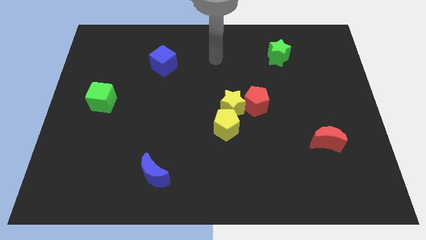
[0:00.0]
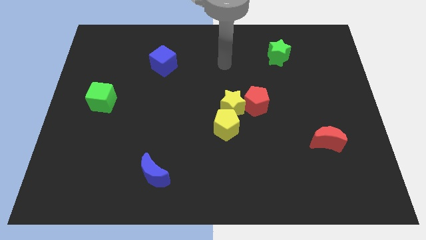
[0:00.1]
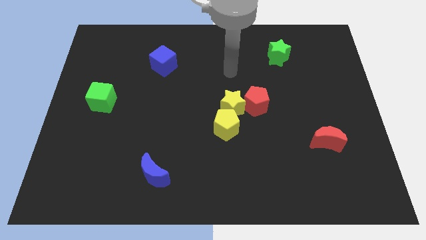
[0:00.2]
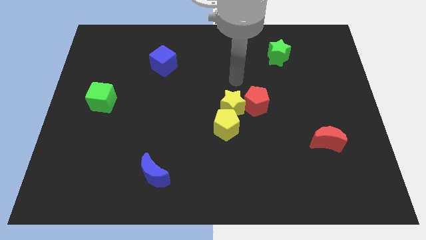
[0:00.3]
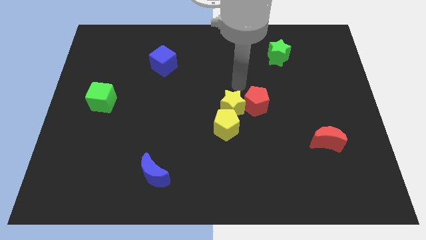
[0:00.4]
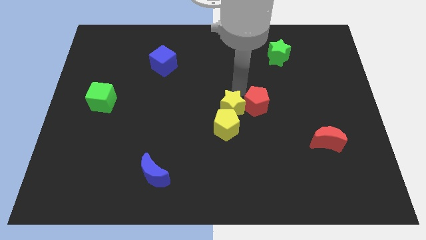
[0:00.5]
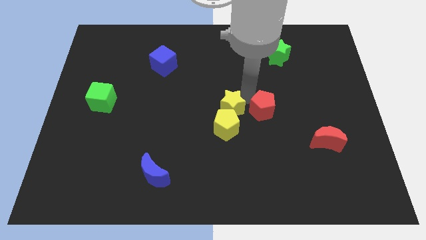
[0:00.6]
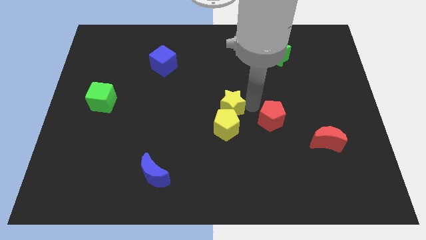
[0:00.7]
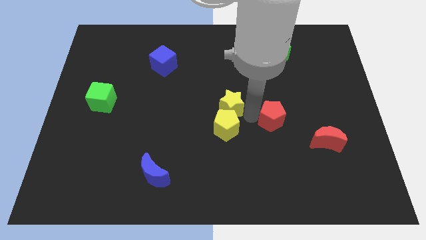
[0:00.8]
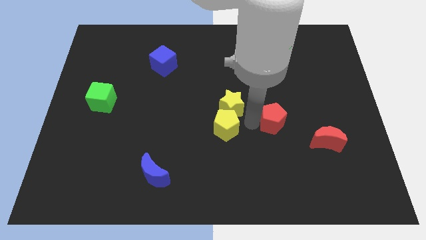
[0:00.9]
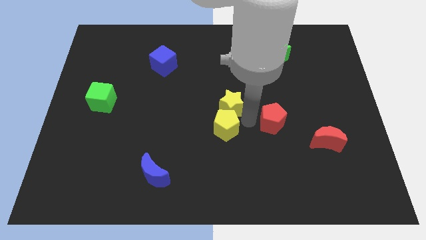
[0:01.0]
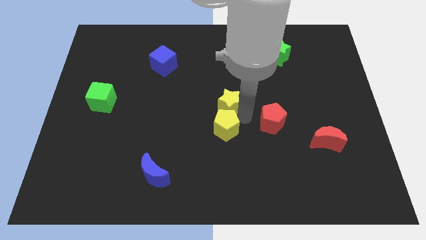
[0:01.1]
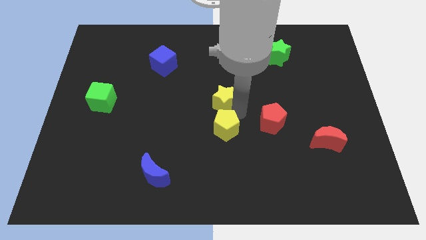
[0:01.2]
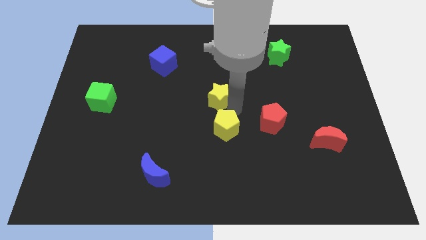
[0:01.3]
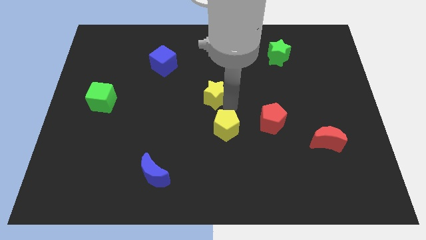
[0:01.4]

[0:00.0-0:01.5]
move the yellow star away from the red pentagon and yellow pentagon

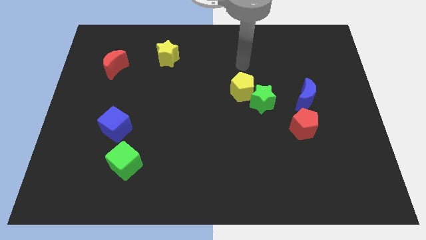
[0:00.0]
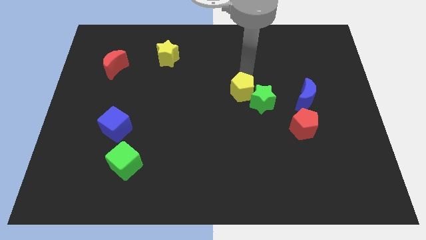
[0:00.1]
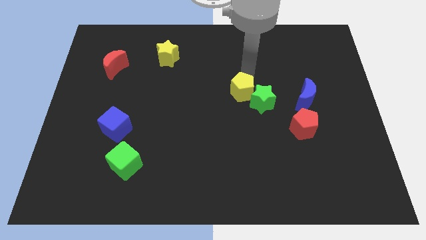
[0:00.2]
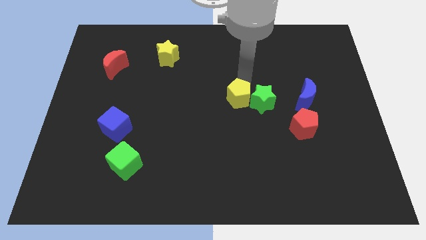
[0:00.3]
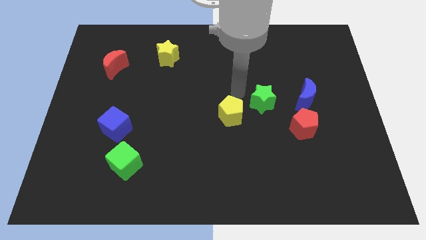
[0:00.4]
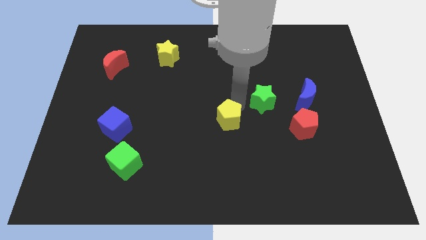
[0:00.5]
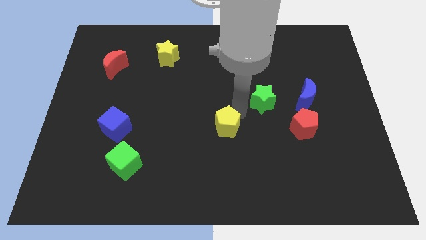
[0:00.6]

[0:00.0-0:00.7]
pull the green star apart from the yellow pentagon

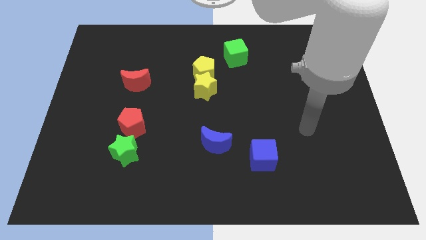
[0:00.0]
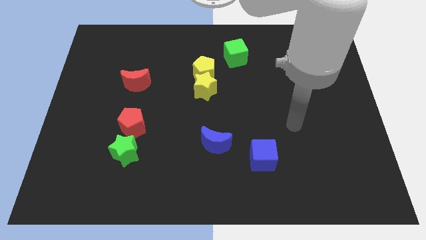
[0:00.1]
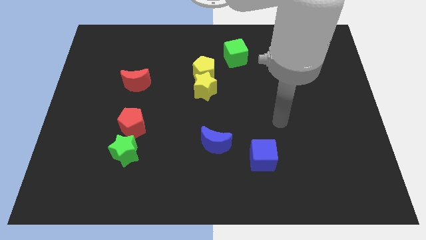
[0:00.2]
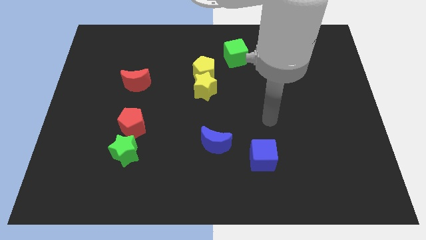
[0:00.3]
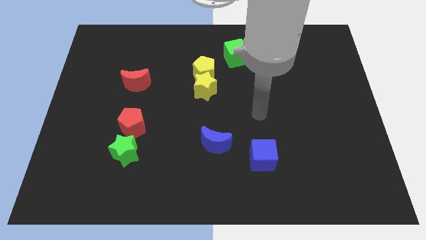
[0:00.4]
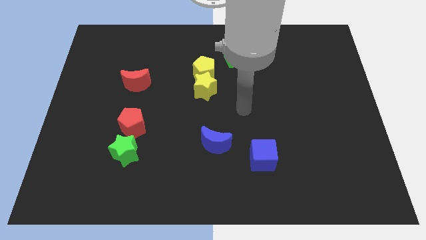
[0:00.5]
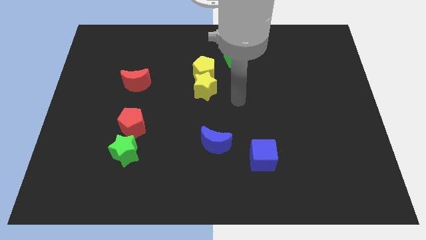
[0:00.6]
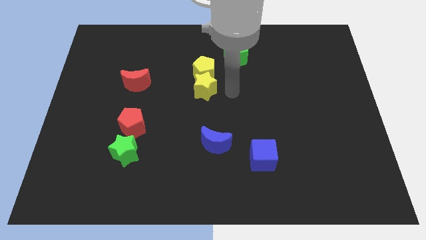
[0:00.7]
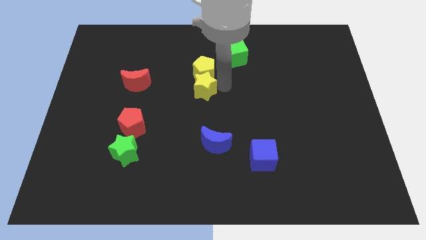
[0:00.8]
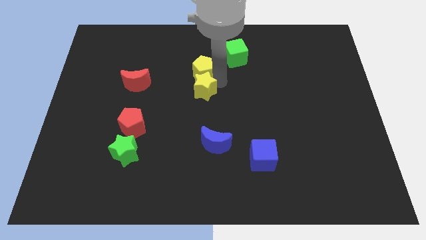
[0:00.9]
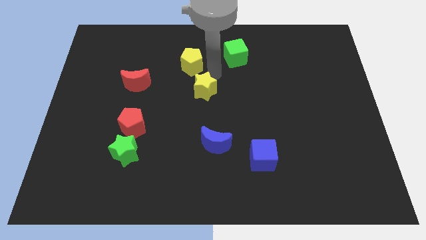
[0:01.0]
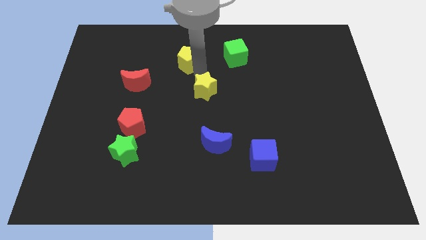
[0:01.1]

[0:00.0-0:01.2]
separate the yellow star from the yellow pentagon

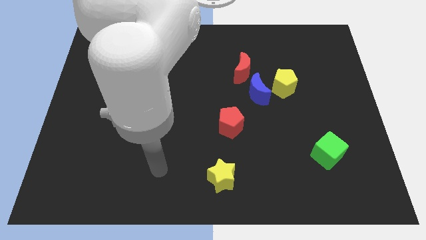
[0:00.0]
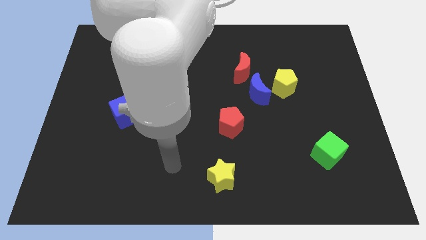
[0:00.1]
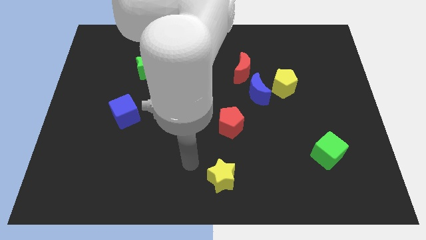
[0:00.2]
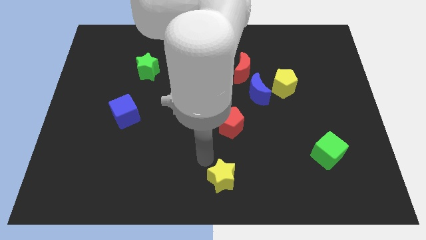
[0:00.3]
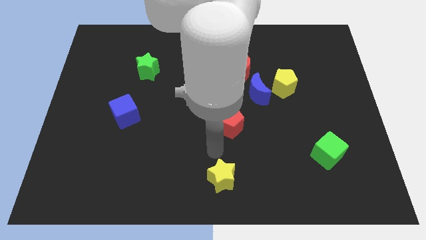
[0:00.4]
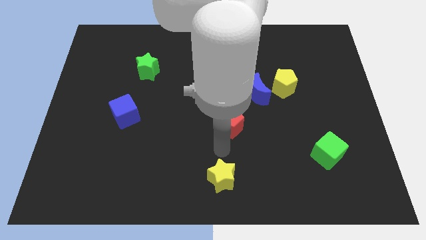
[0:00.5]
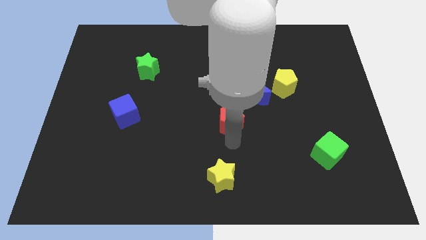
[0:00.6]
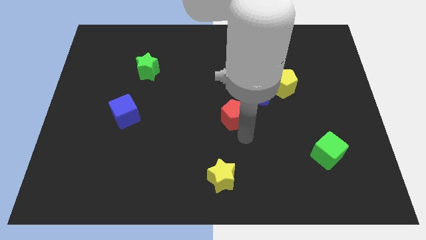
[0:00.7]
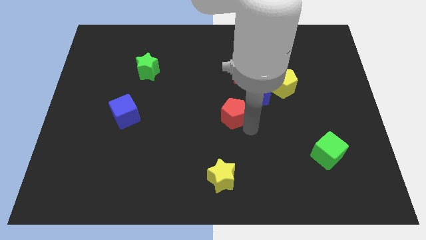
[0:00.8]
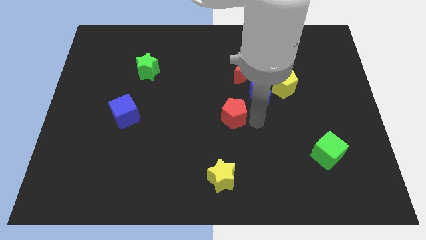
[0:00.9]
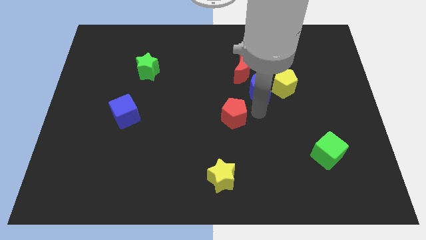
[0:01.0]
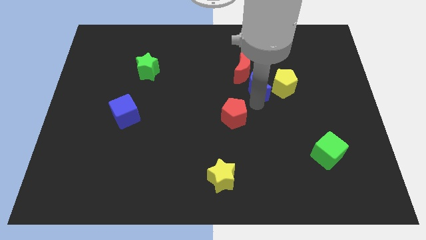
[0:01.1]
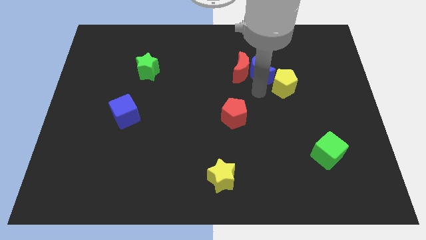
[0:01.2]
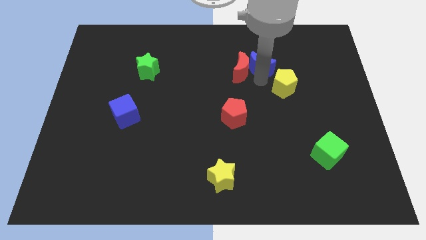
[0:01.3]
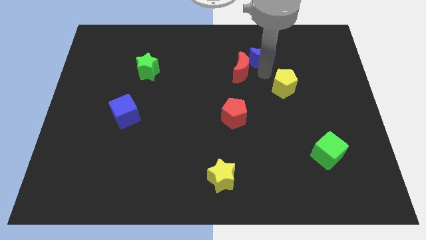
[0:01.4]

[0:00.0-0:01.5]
move the yellow pentagon away from the blue moon

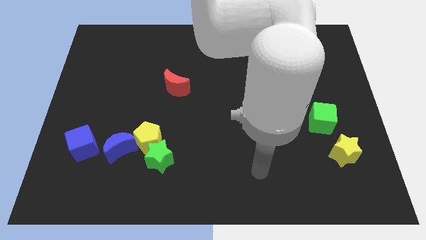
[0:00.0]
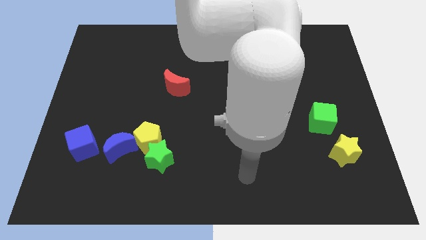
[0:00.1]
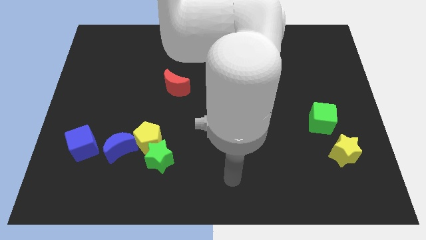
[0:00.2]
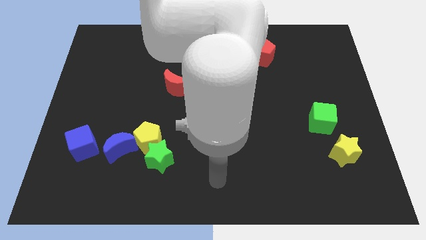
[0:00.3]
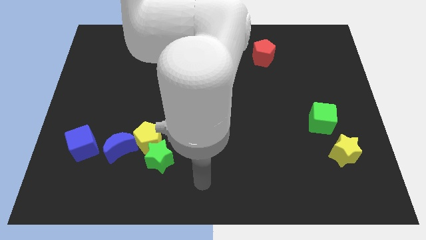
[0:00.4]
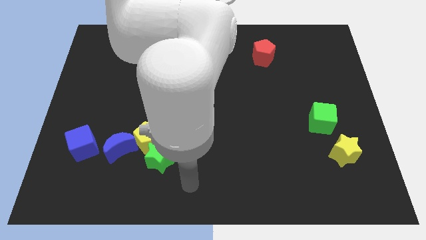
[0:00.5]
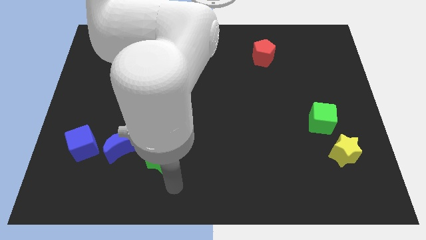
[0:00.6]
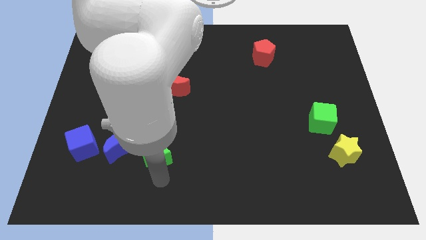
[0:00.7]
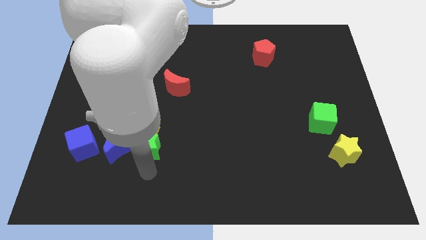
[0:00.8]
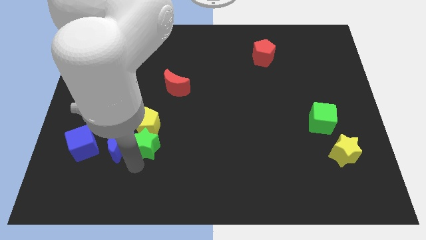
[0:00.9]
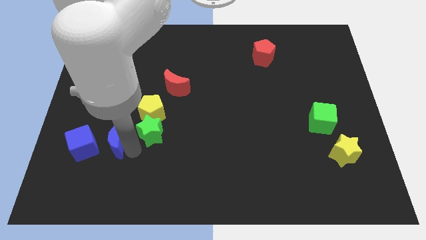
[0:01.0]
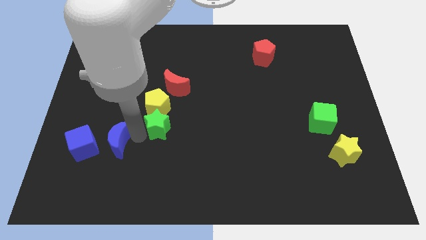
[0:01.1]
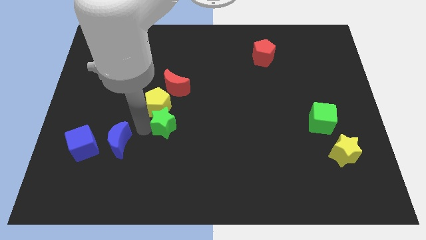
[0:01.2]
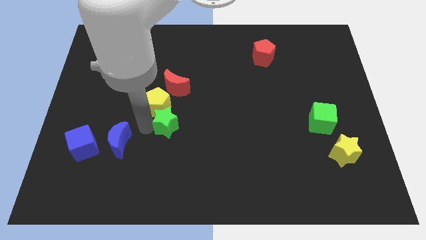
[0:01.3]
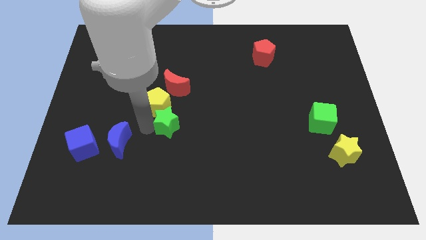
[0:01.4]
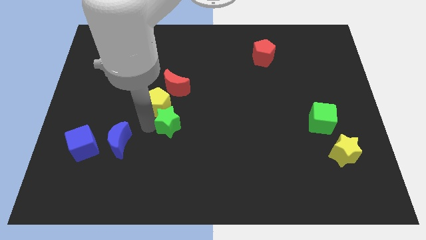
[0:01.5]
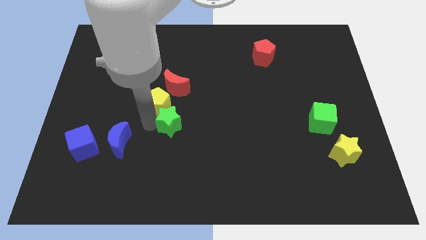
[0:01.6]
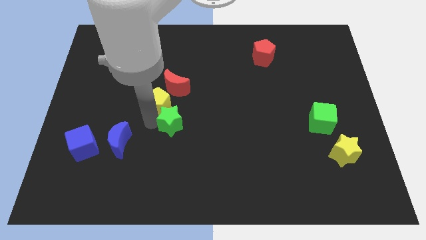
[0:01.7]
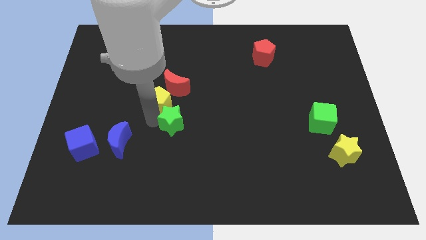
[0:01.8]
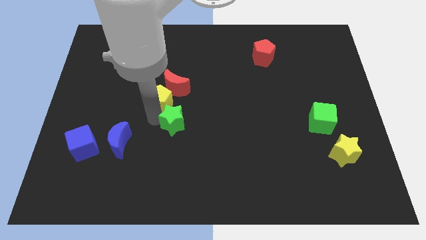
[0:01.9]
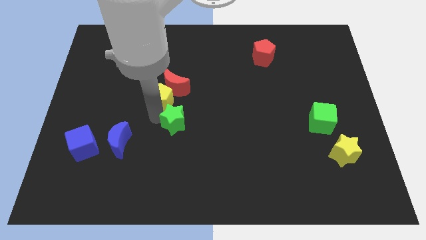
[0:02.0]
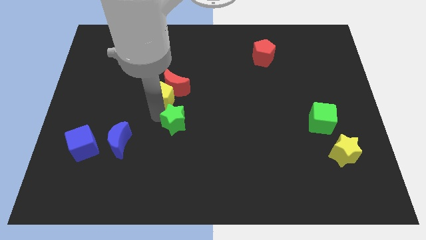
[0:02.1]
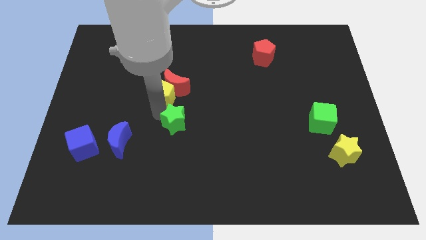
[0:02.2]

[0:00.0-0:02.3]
pull the yellow pentagon apart from the green star and blue moon

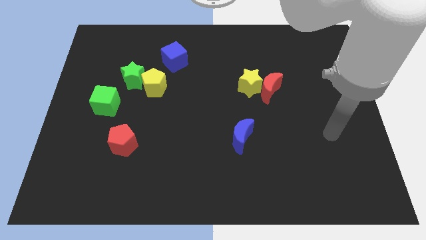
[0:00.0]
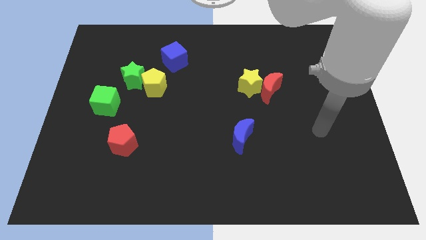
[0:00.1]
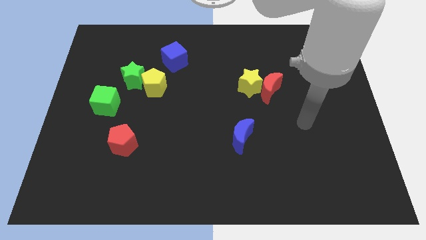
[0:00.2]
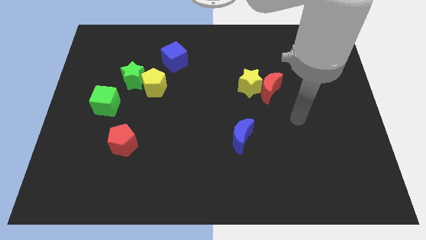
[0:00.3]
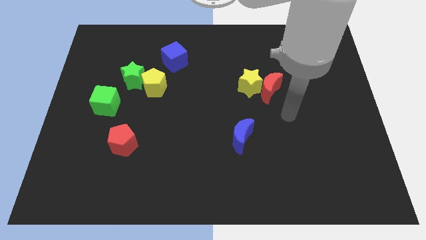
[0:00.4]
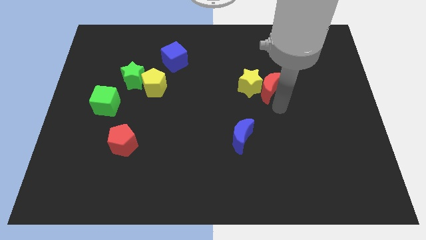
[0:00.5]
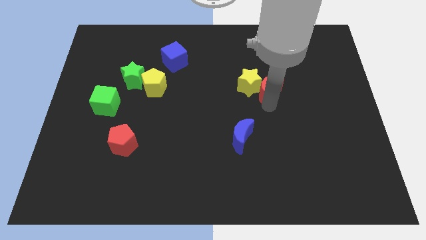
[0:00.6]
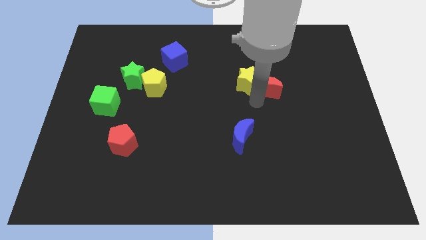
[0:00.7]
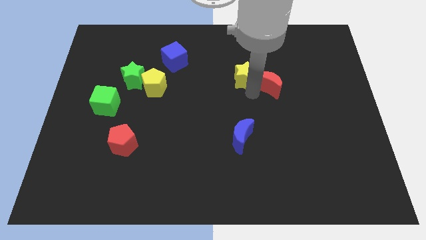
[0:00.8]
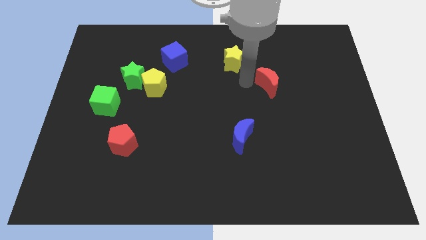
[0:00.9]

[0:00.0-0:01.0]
move the red moon away from the yellow star

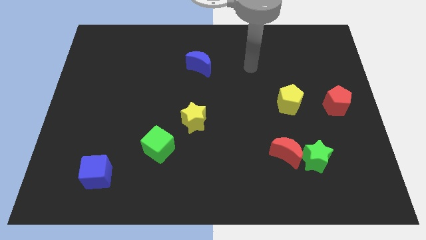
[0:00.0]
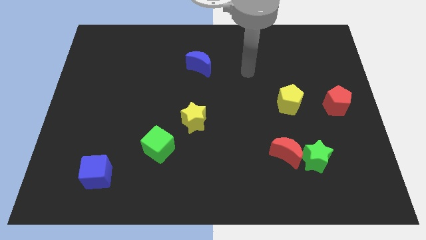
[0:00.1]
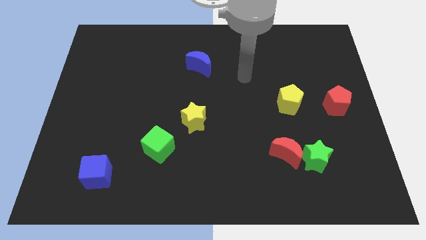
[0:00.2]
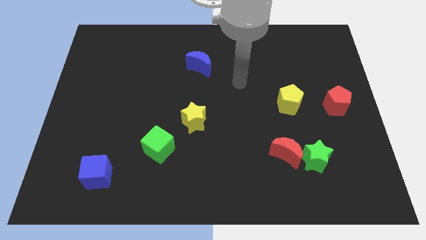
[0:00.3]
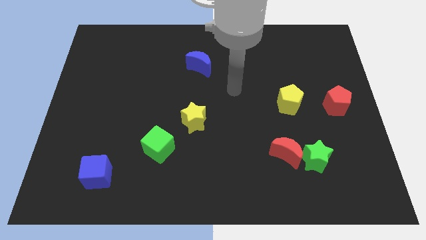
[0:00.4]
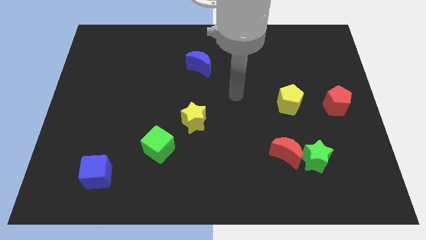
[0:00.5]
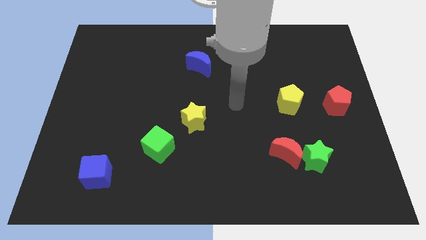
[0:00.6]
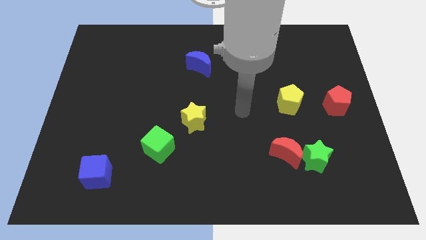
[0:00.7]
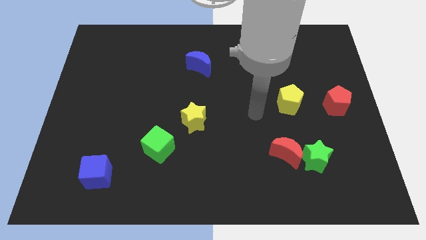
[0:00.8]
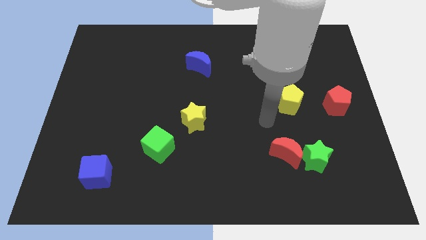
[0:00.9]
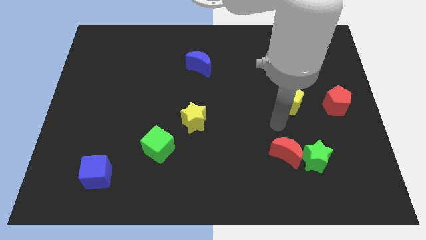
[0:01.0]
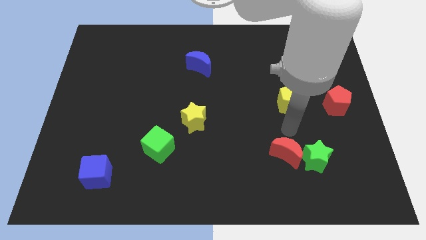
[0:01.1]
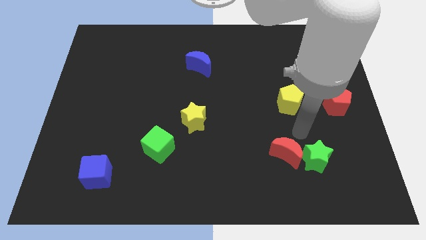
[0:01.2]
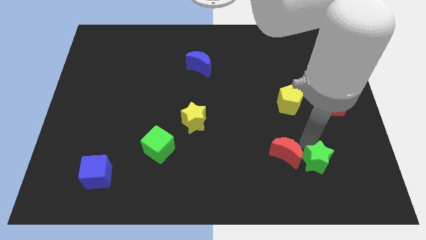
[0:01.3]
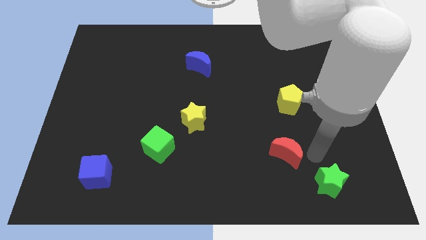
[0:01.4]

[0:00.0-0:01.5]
separate the red moon from the green star
